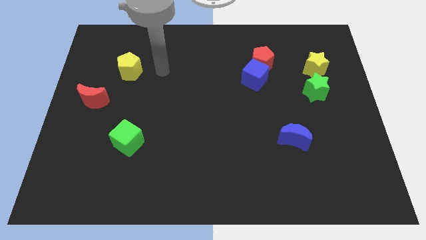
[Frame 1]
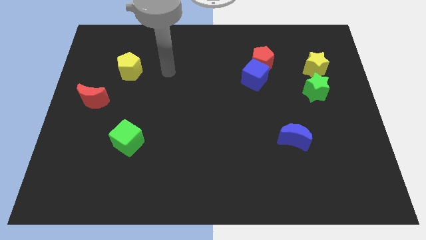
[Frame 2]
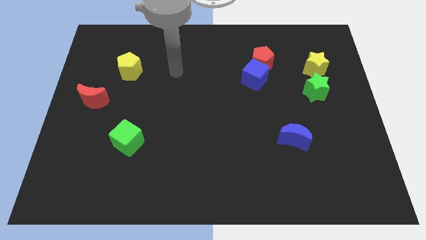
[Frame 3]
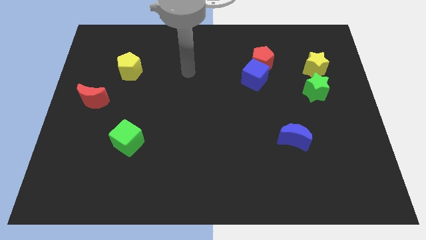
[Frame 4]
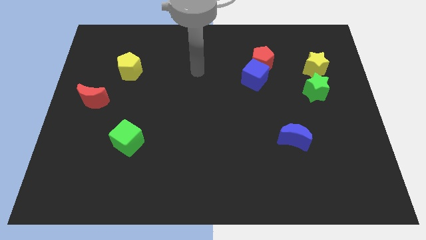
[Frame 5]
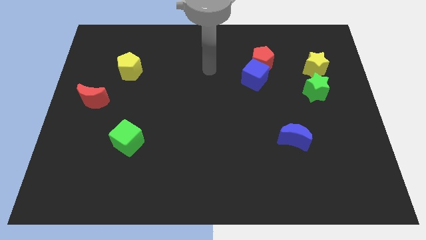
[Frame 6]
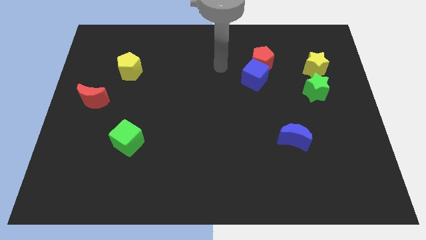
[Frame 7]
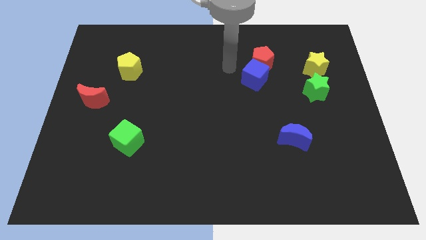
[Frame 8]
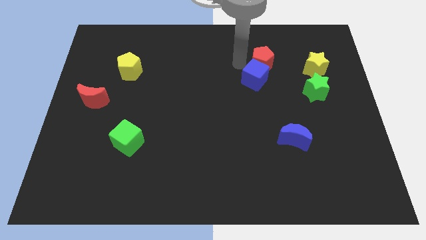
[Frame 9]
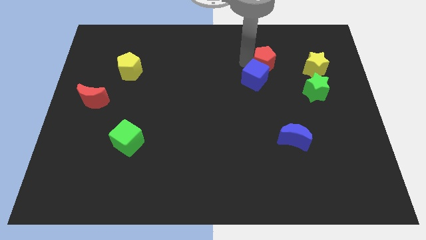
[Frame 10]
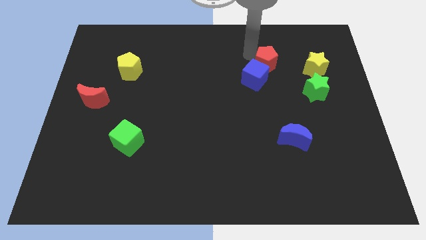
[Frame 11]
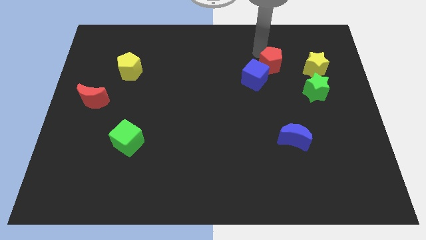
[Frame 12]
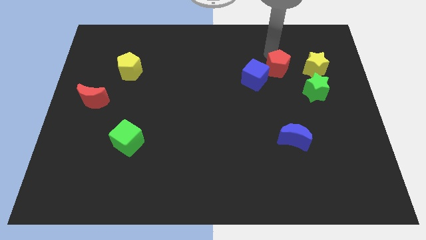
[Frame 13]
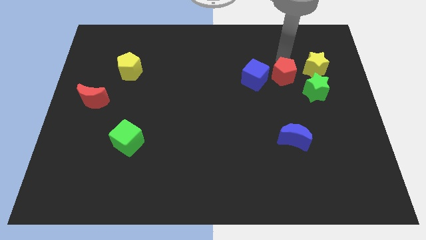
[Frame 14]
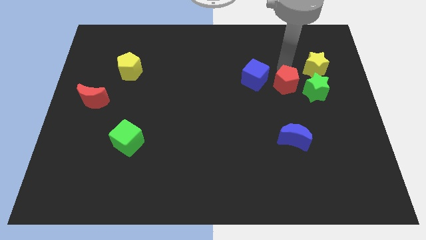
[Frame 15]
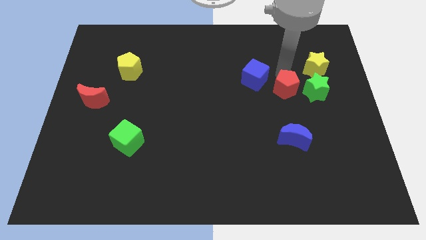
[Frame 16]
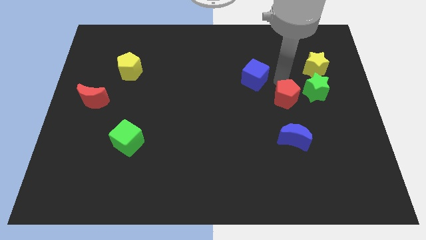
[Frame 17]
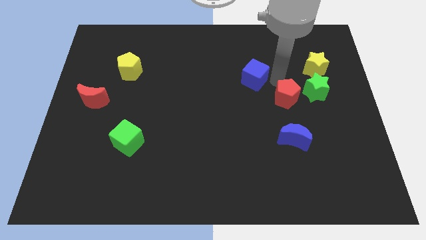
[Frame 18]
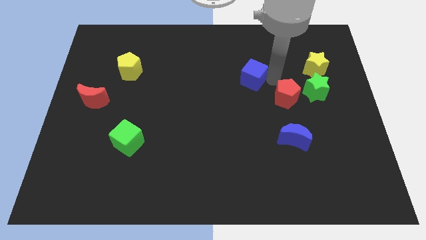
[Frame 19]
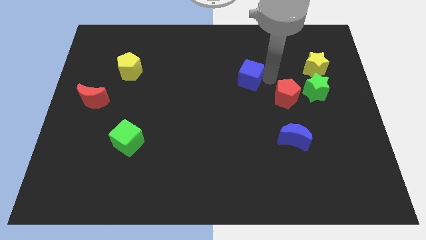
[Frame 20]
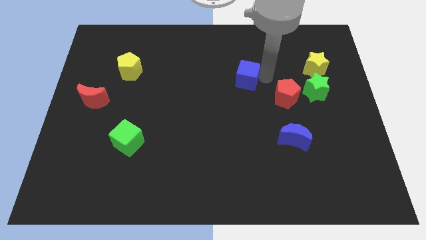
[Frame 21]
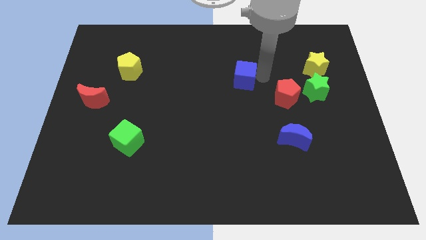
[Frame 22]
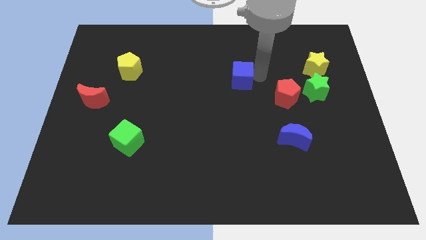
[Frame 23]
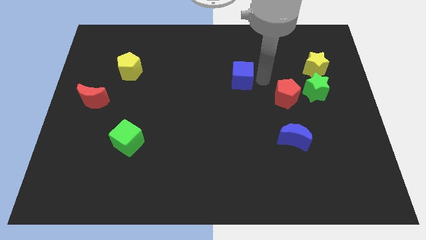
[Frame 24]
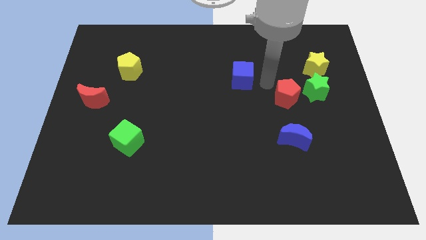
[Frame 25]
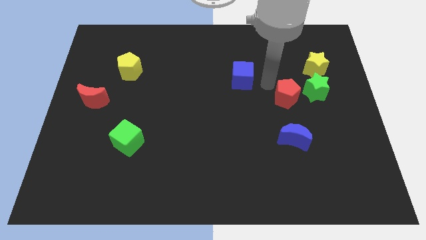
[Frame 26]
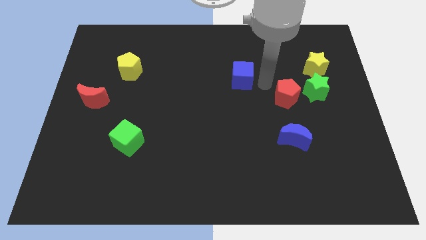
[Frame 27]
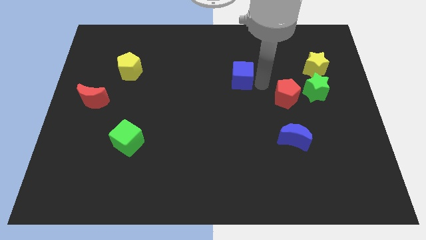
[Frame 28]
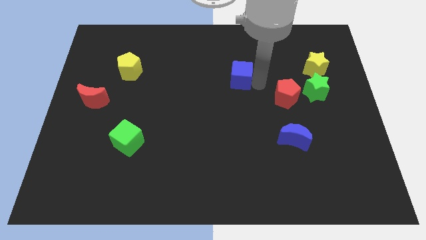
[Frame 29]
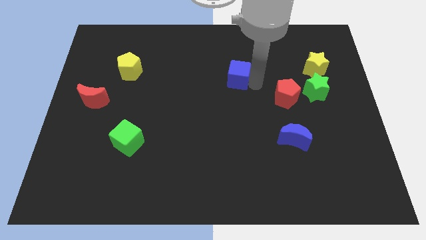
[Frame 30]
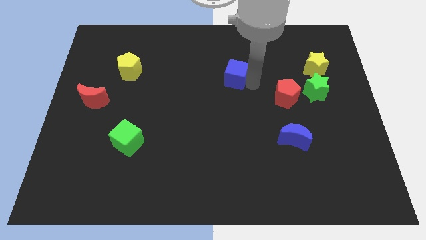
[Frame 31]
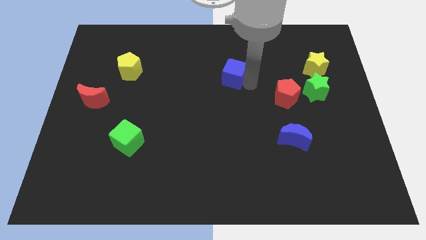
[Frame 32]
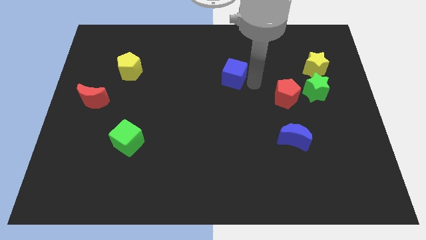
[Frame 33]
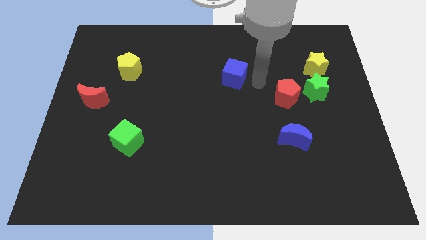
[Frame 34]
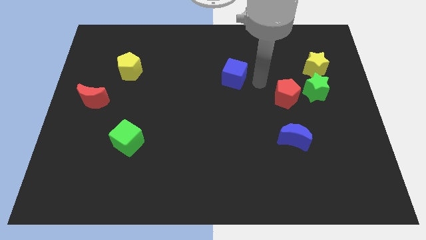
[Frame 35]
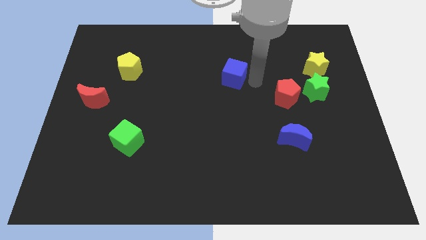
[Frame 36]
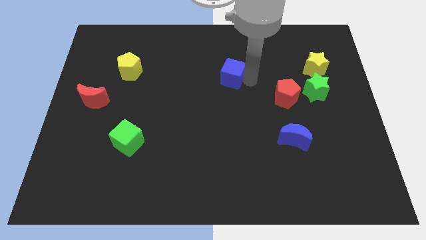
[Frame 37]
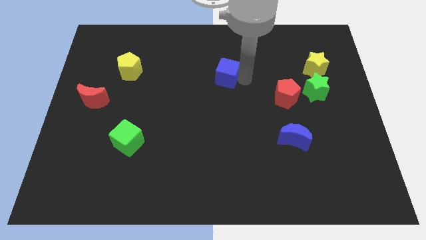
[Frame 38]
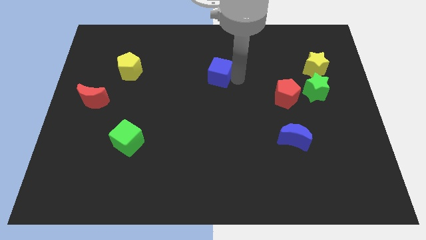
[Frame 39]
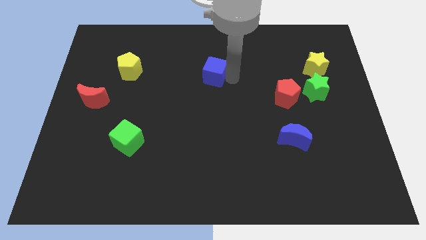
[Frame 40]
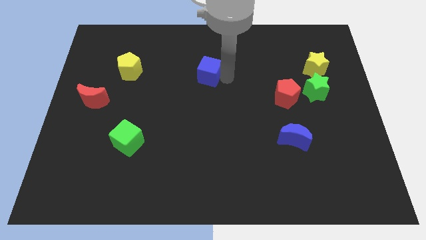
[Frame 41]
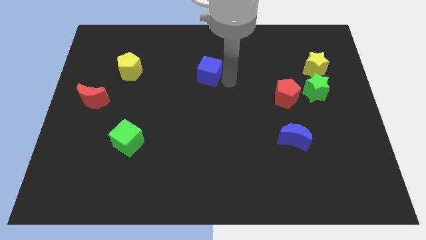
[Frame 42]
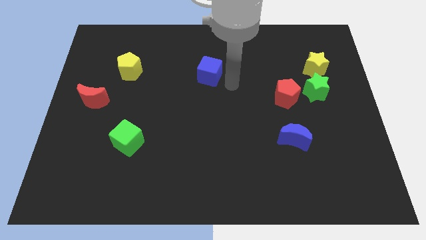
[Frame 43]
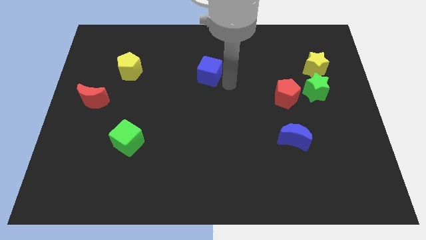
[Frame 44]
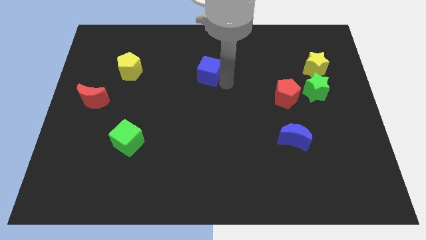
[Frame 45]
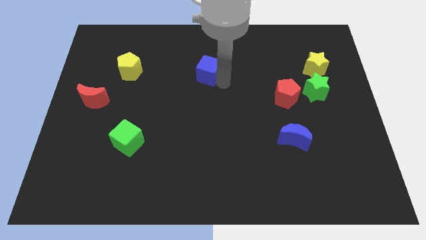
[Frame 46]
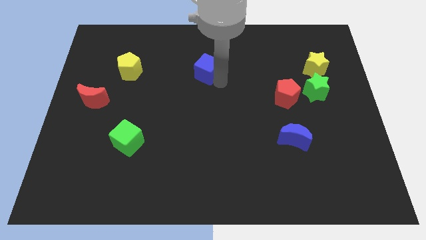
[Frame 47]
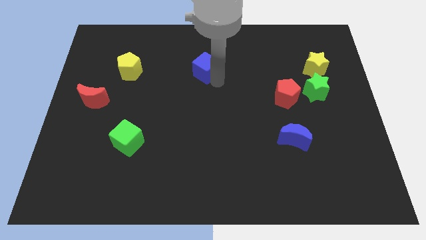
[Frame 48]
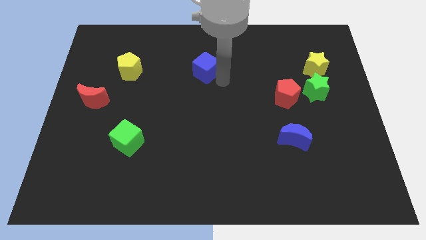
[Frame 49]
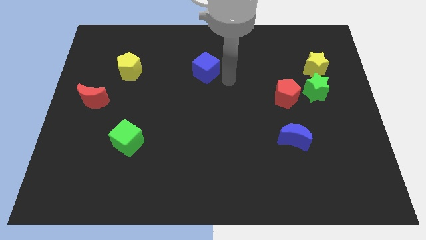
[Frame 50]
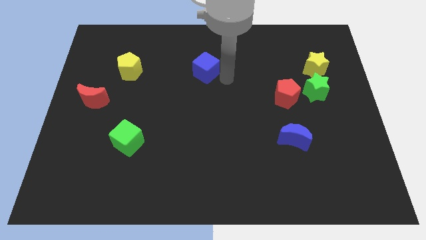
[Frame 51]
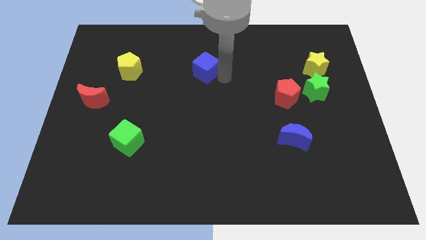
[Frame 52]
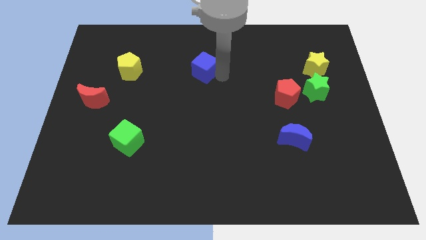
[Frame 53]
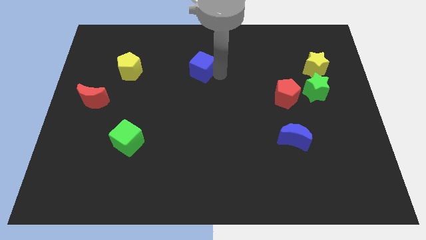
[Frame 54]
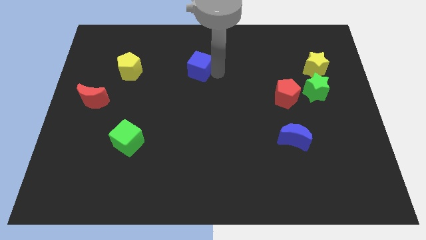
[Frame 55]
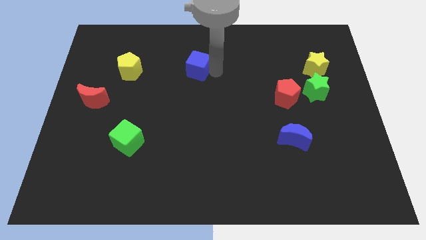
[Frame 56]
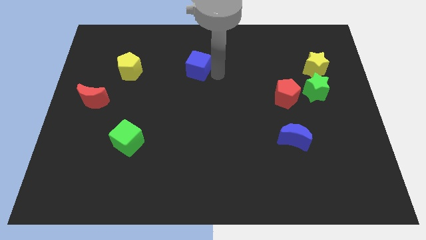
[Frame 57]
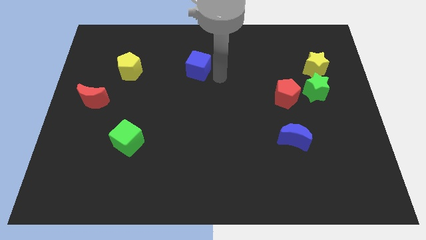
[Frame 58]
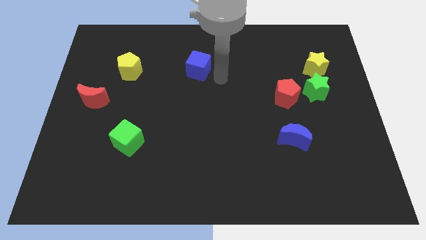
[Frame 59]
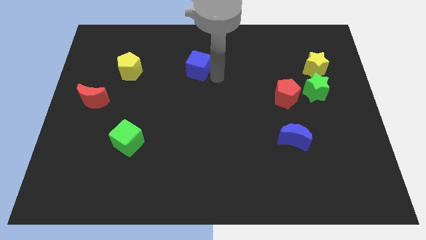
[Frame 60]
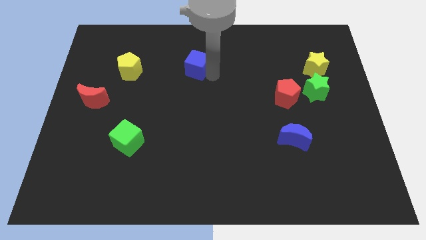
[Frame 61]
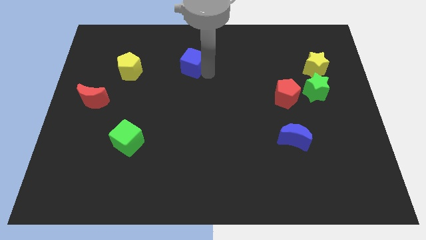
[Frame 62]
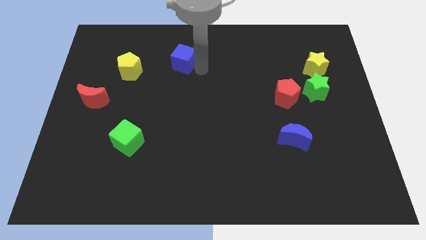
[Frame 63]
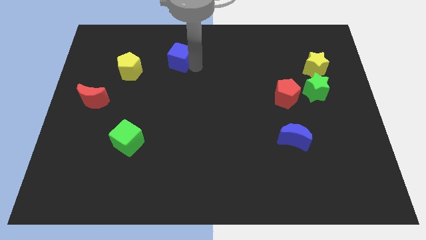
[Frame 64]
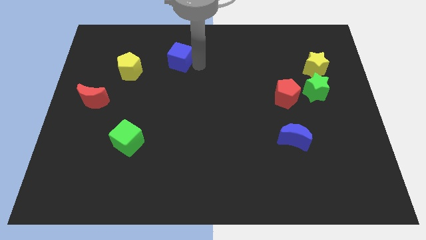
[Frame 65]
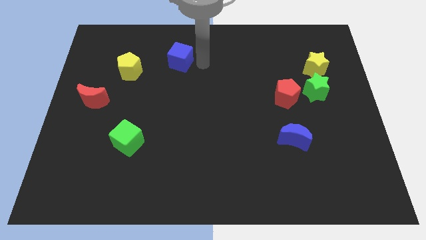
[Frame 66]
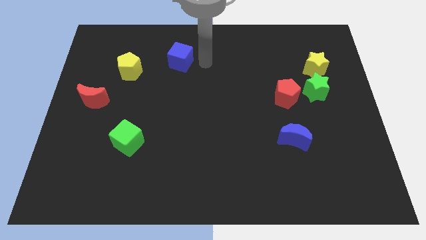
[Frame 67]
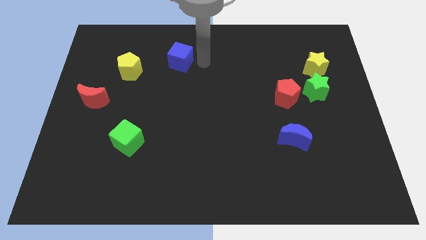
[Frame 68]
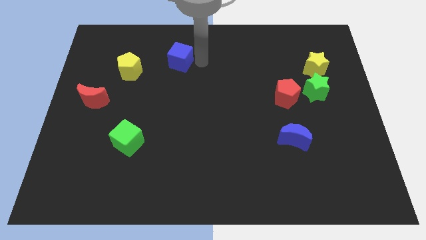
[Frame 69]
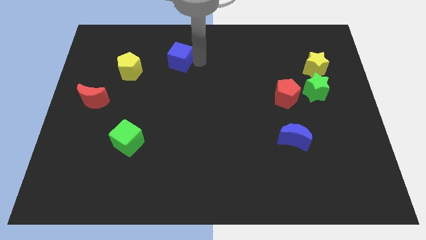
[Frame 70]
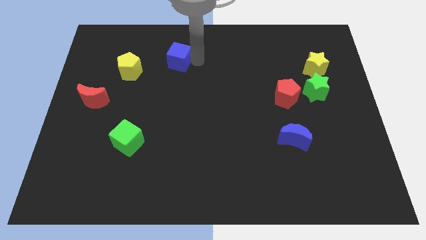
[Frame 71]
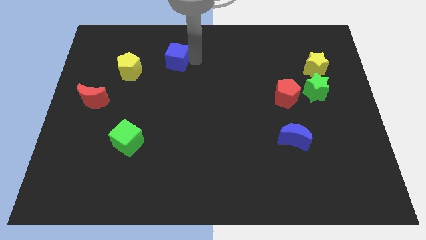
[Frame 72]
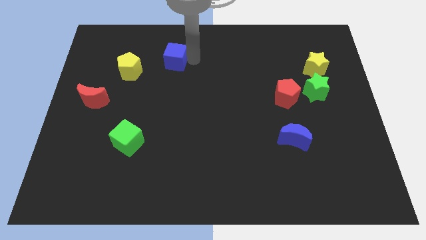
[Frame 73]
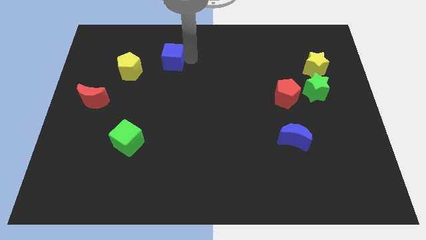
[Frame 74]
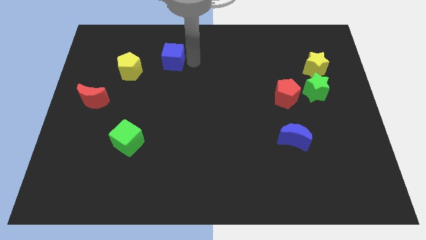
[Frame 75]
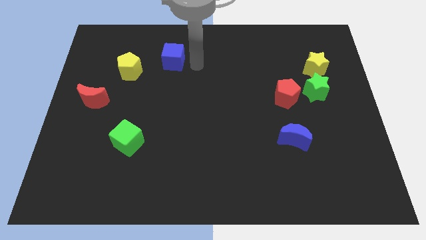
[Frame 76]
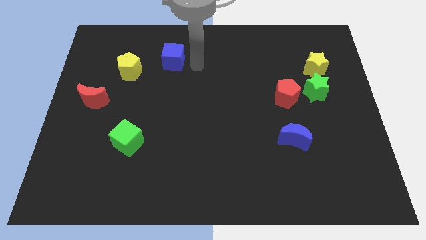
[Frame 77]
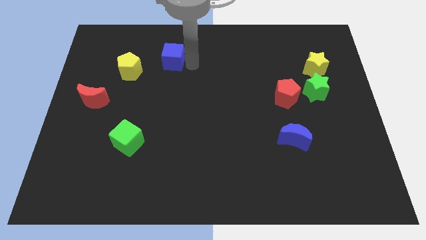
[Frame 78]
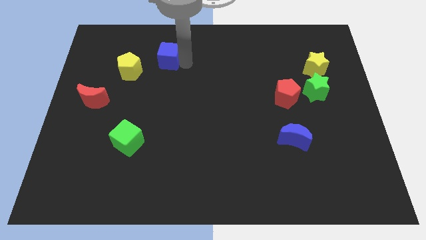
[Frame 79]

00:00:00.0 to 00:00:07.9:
slide the blue cube diagonally up and to the right of the yellow pentagon
